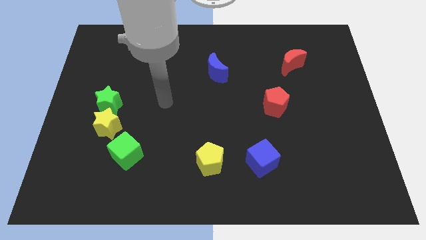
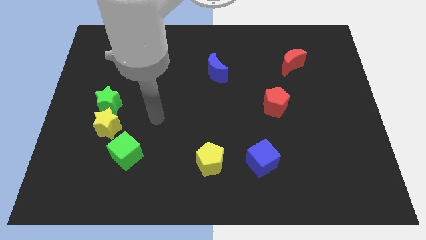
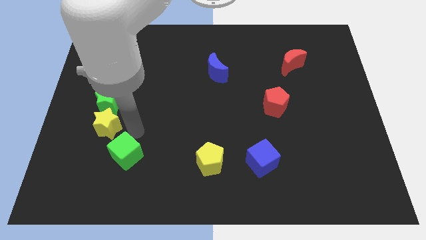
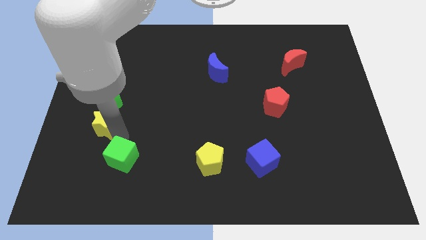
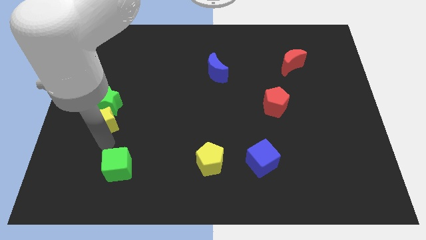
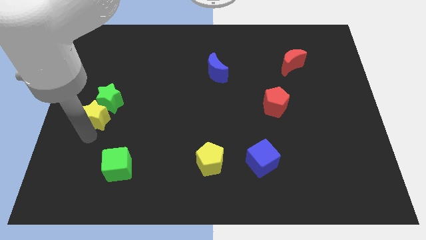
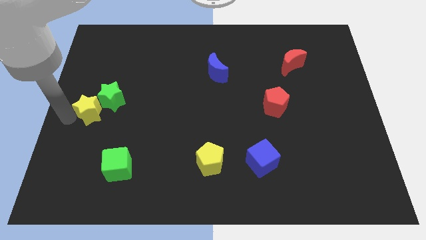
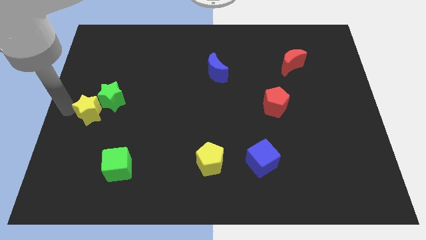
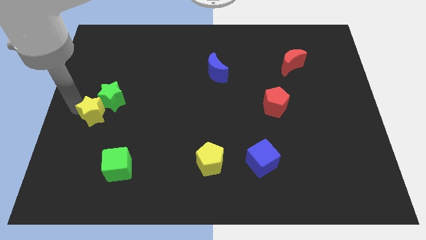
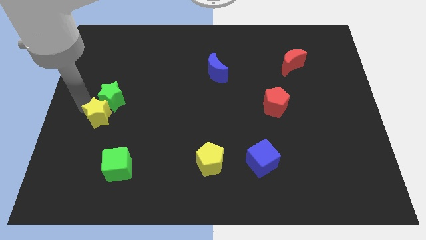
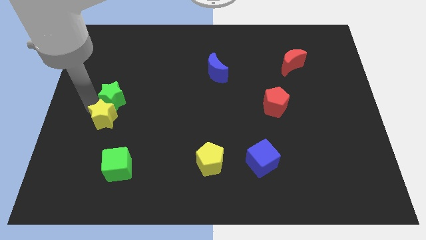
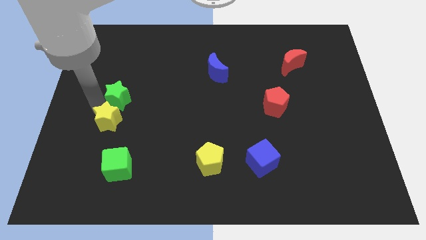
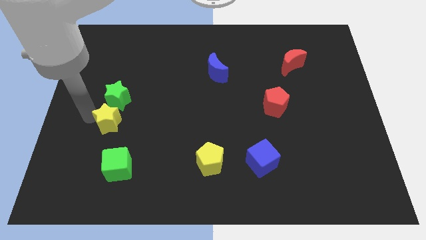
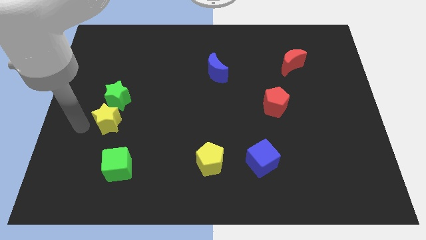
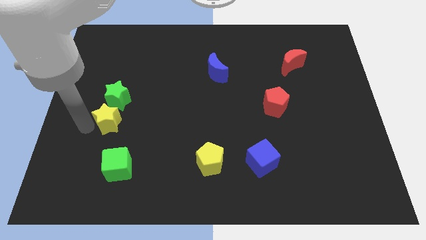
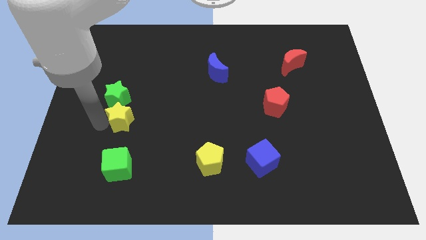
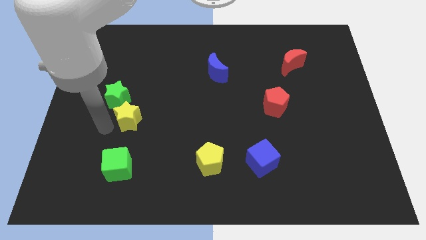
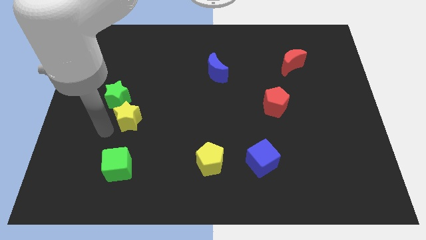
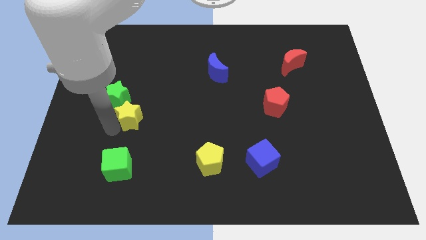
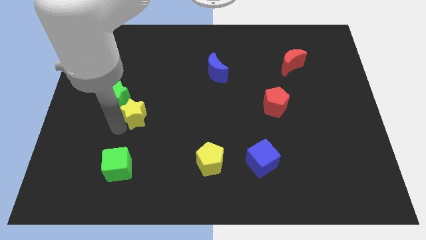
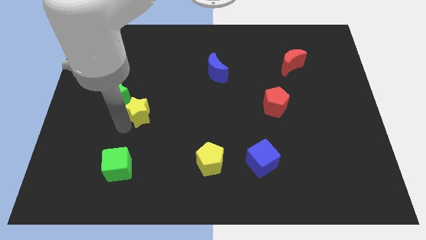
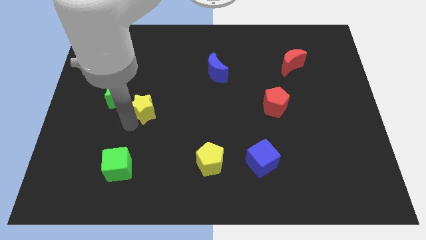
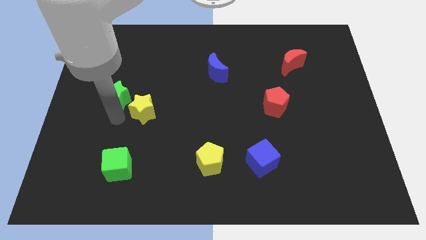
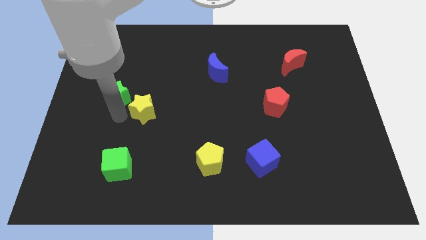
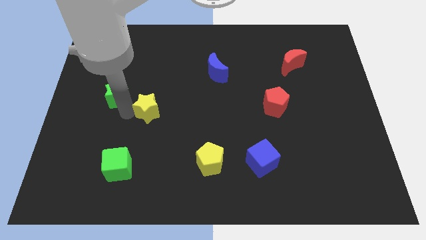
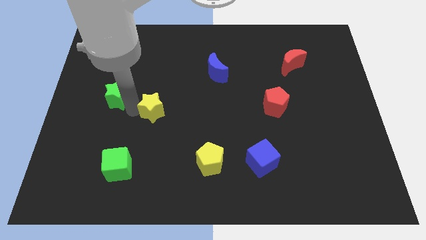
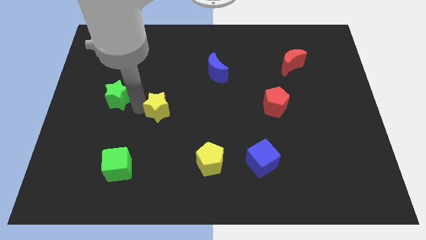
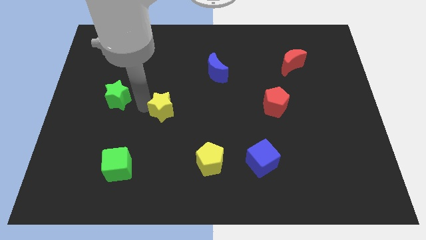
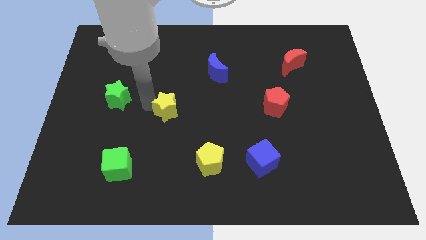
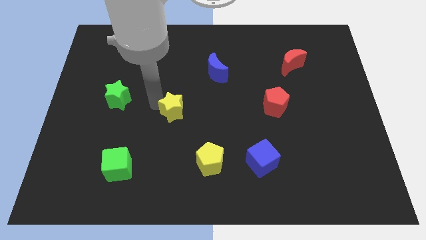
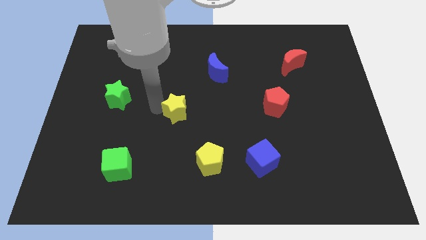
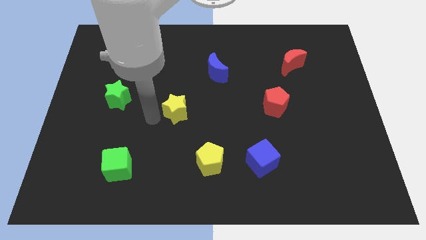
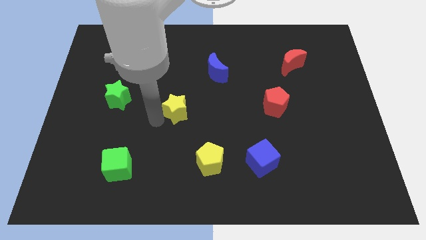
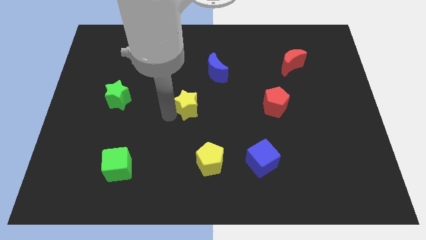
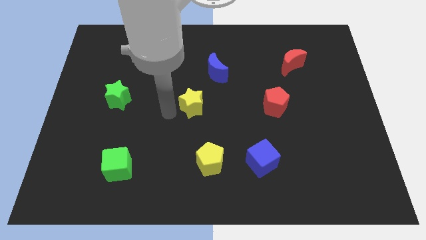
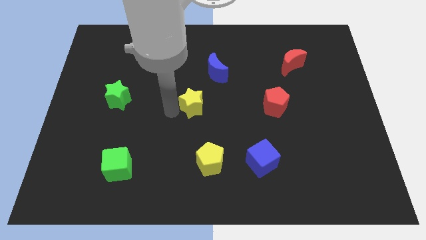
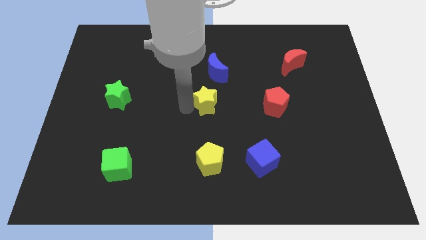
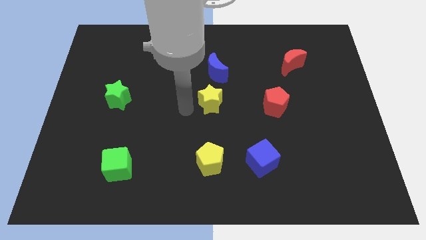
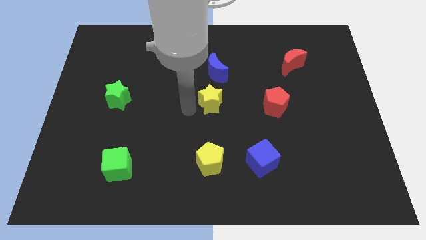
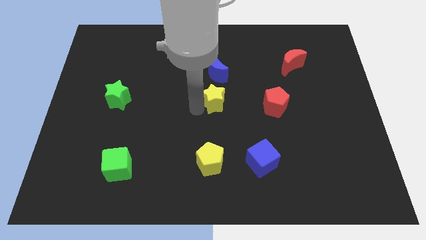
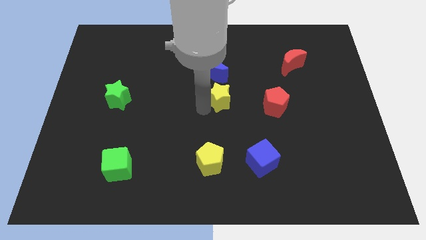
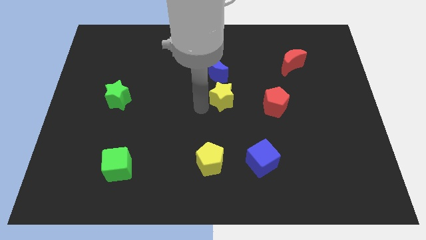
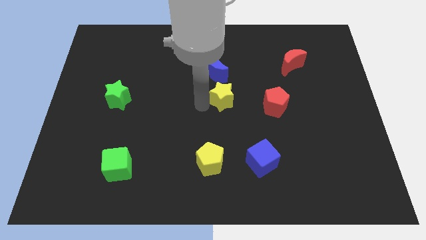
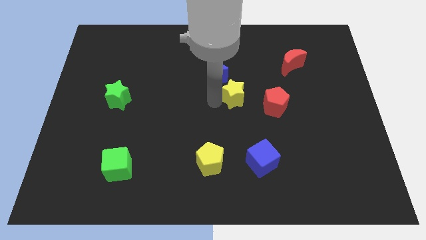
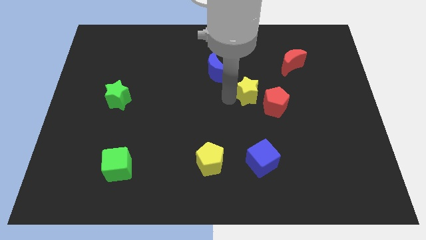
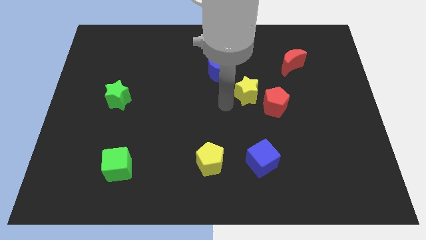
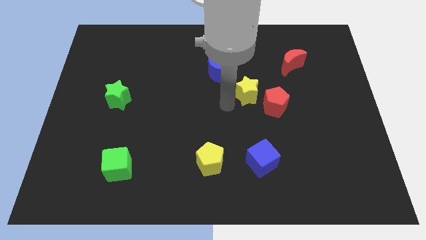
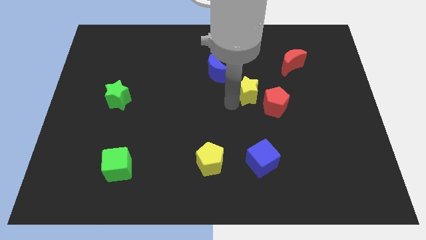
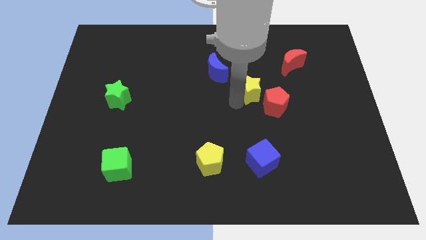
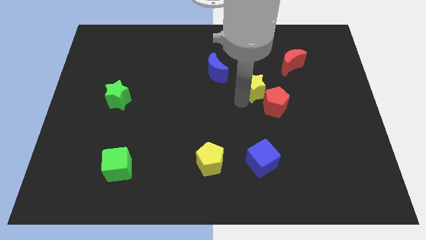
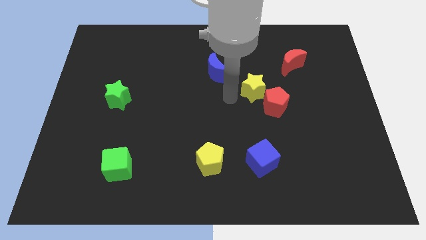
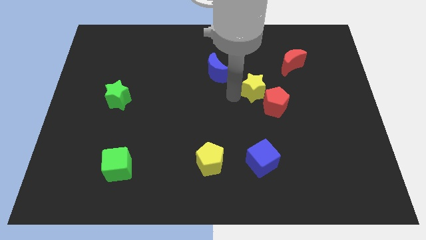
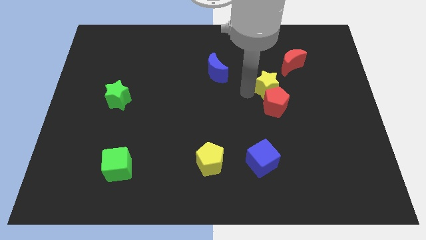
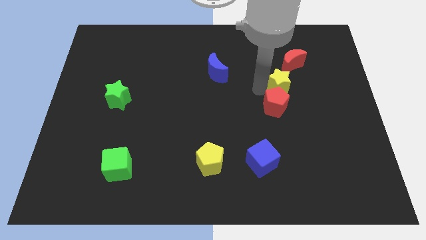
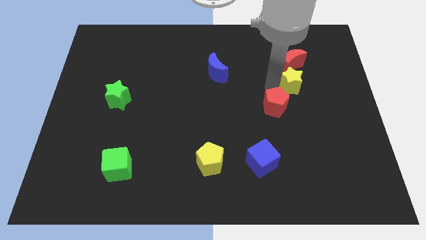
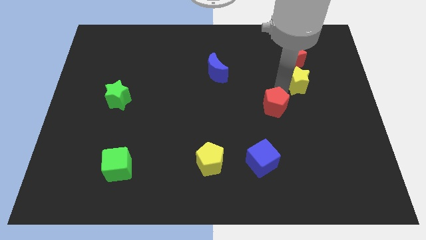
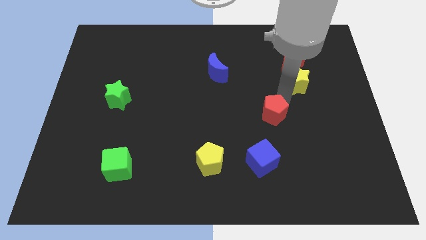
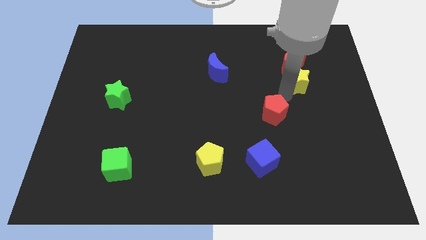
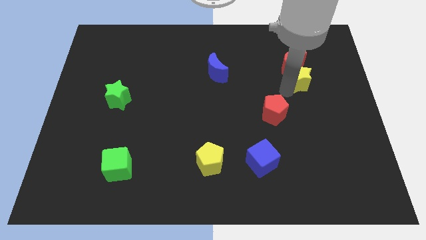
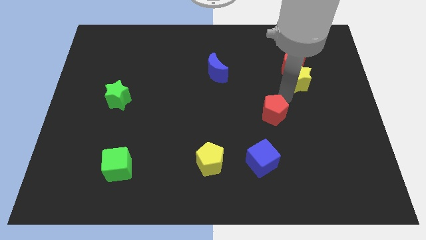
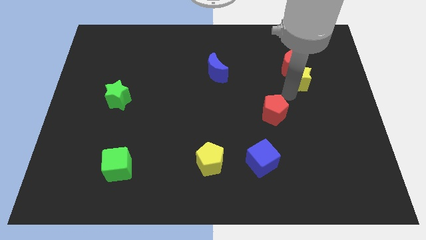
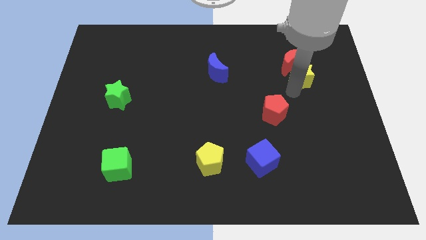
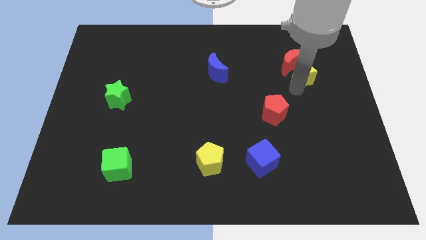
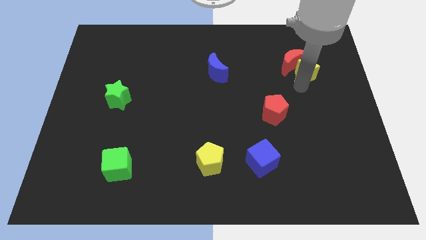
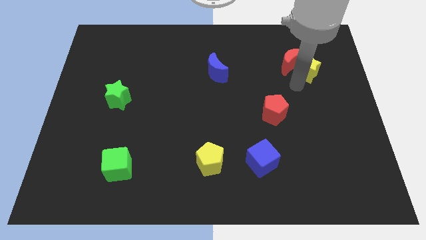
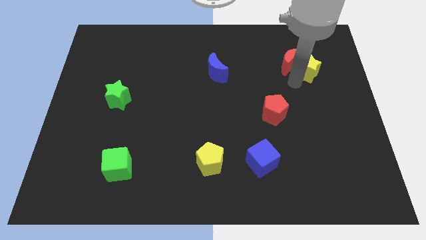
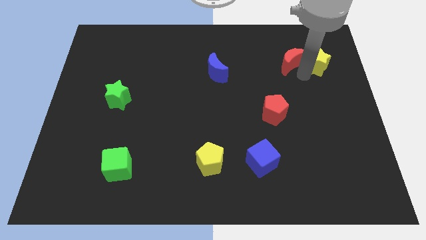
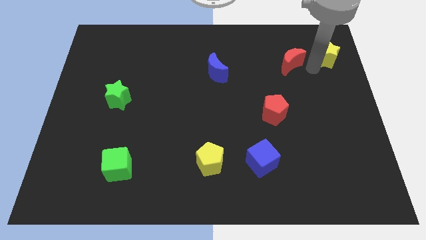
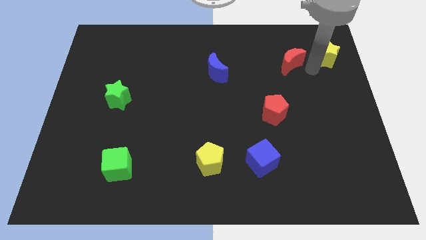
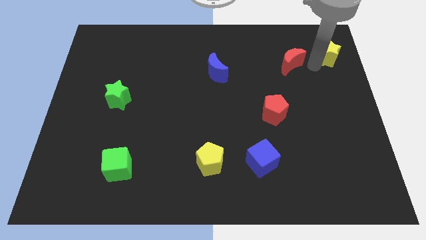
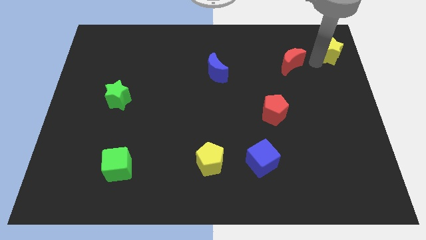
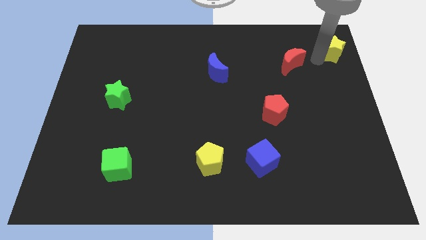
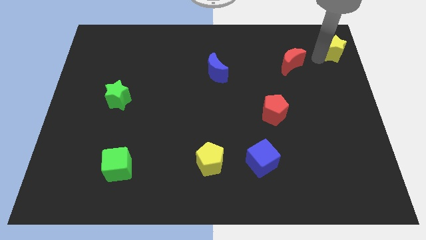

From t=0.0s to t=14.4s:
slide the yellow star to the top right

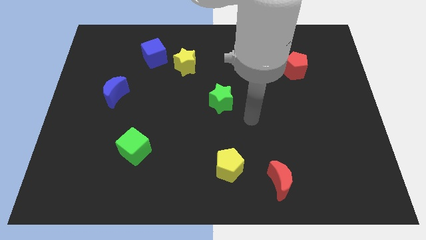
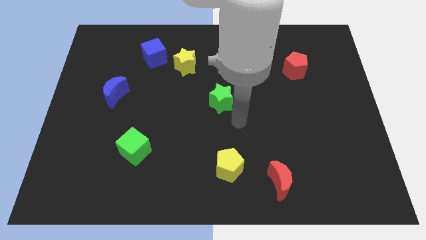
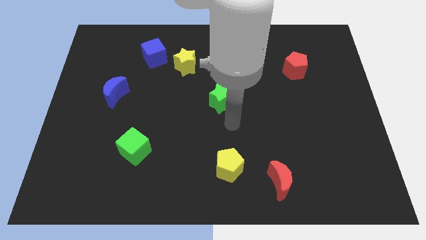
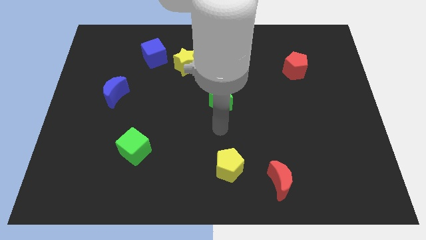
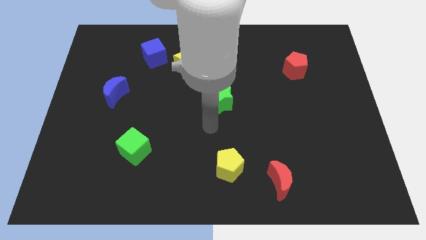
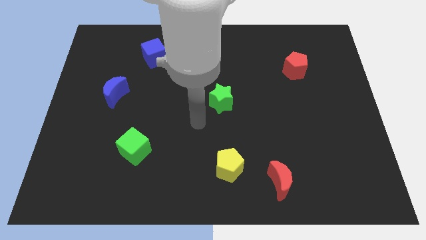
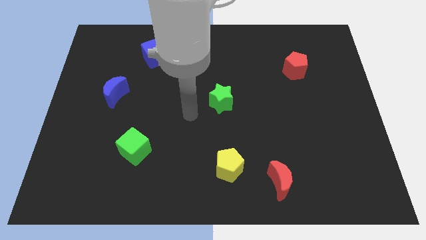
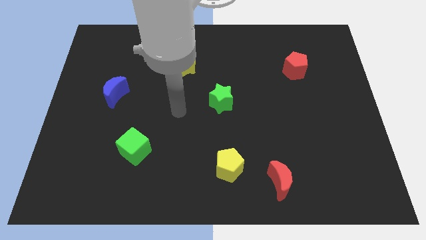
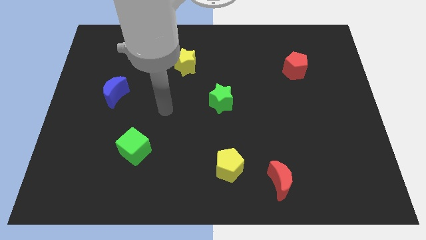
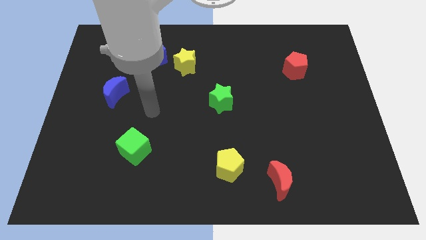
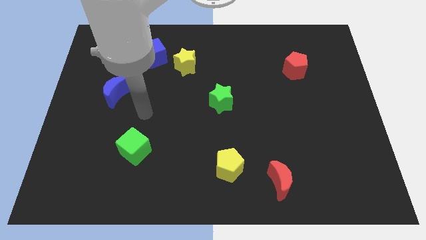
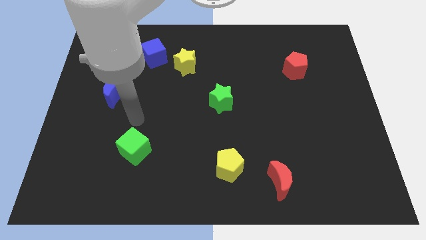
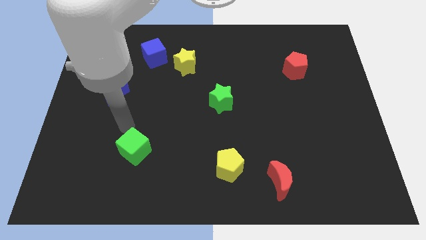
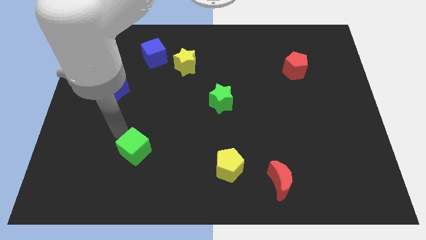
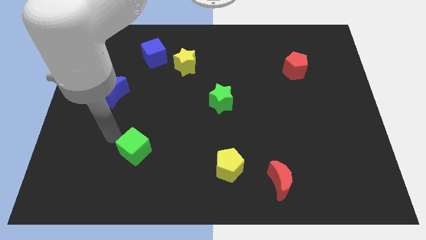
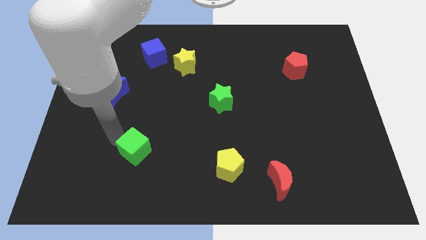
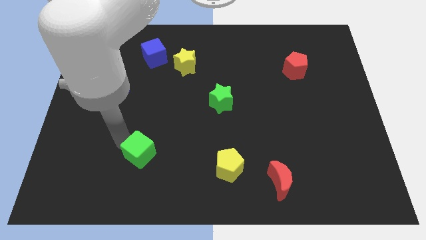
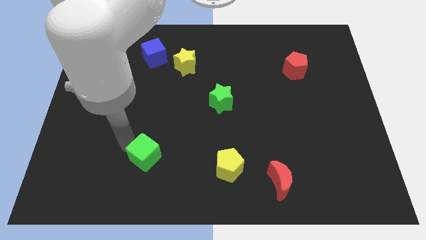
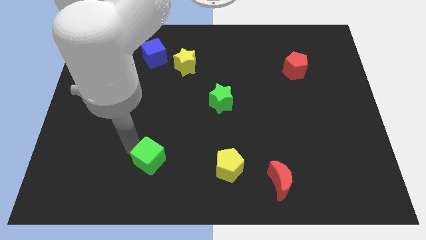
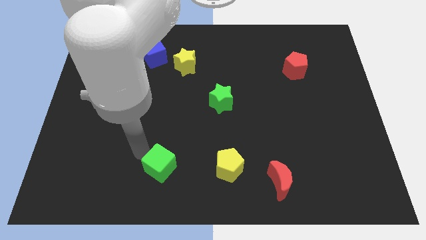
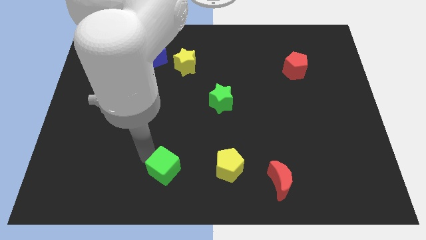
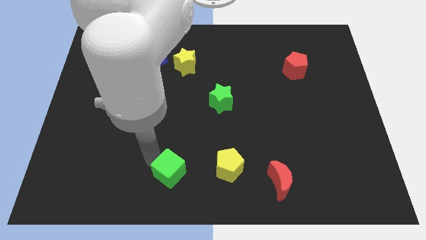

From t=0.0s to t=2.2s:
move the green cube to the bottom side
